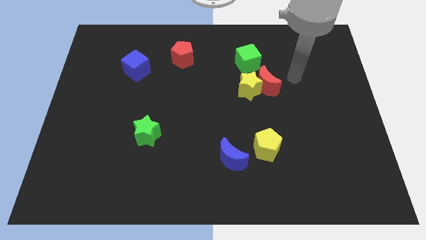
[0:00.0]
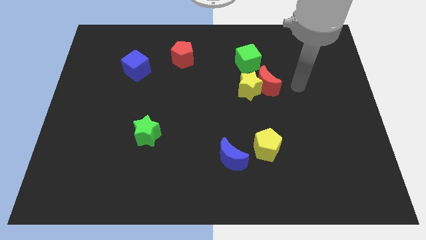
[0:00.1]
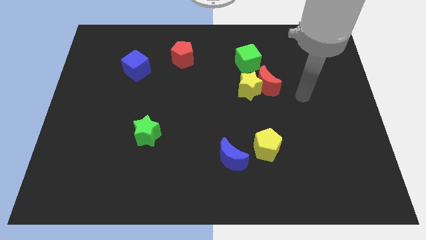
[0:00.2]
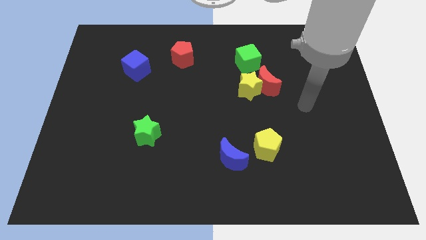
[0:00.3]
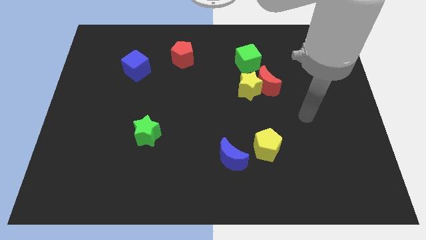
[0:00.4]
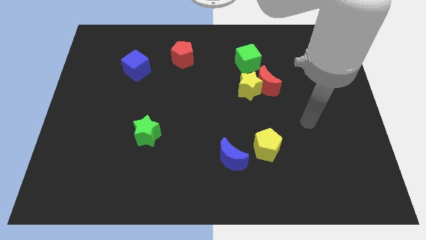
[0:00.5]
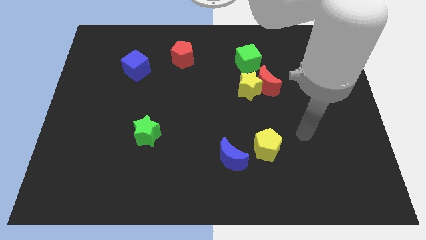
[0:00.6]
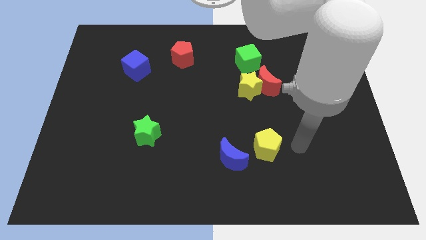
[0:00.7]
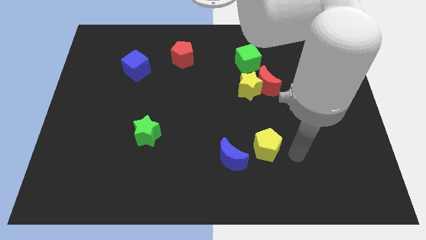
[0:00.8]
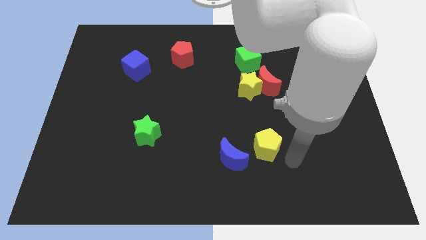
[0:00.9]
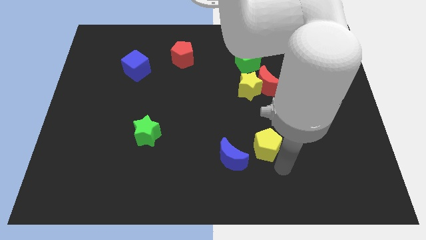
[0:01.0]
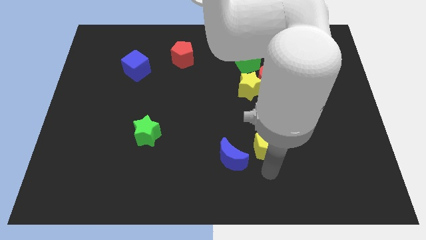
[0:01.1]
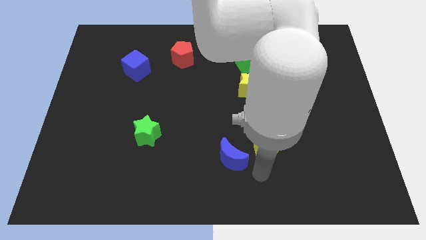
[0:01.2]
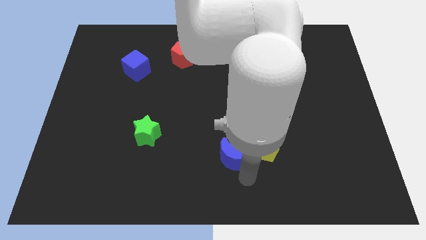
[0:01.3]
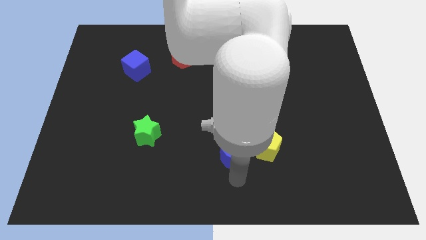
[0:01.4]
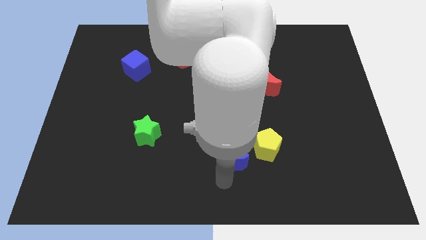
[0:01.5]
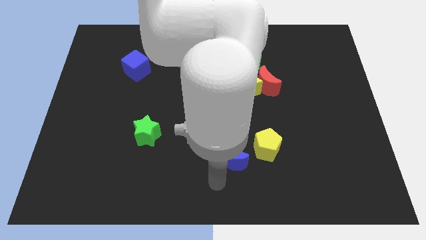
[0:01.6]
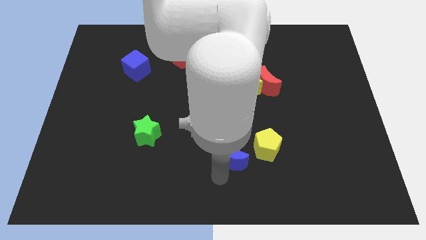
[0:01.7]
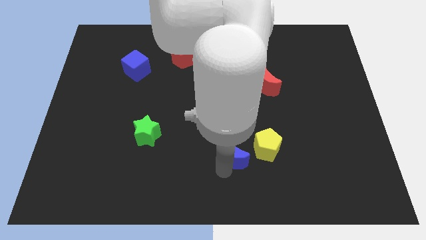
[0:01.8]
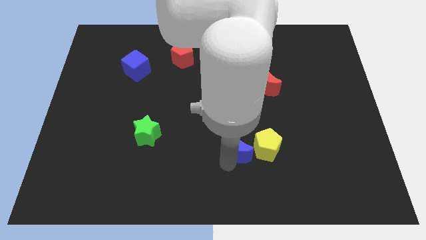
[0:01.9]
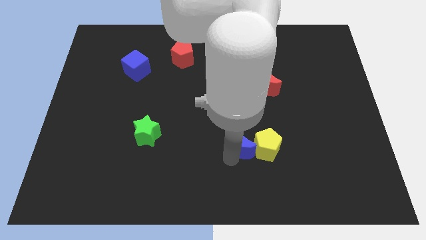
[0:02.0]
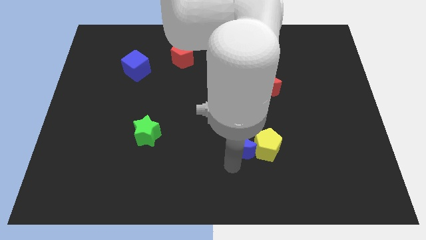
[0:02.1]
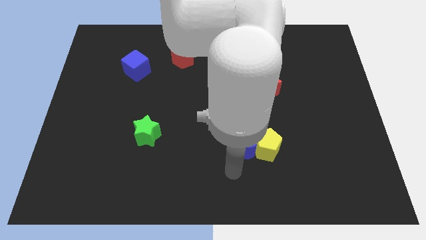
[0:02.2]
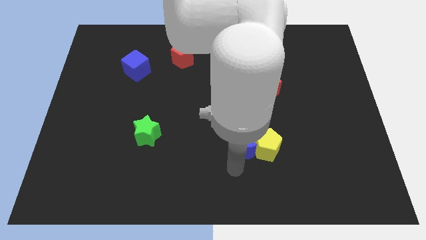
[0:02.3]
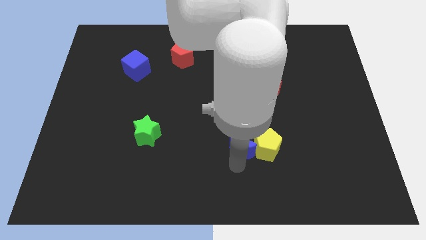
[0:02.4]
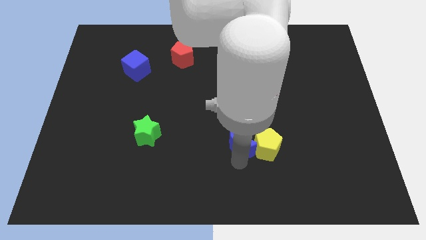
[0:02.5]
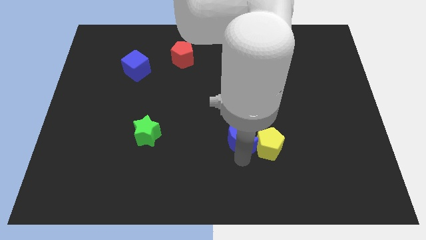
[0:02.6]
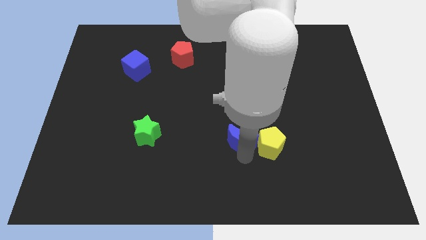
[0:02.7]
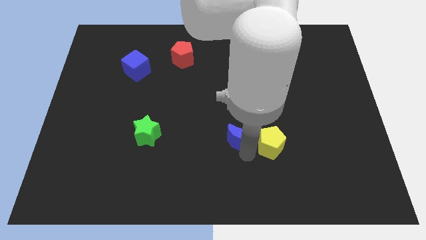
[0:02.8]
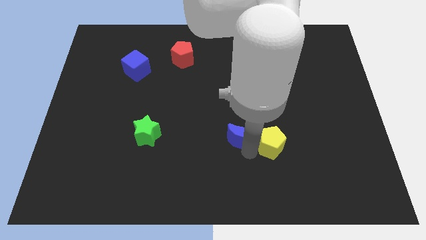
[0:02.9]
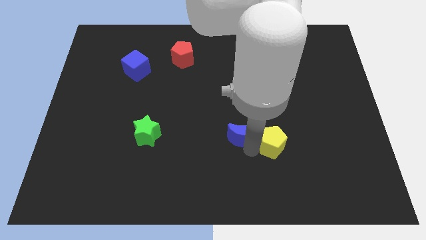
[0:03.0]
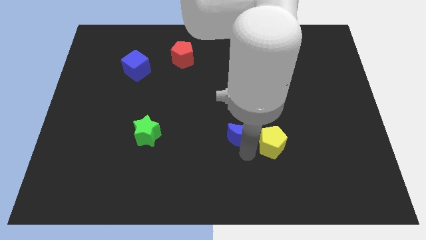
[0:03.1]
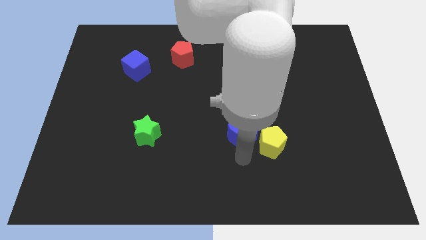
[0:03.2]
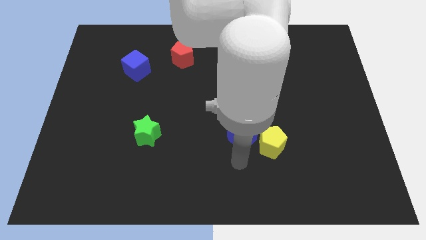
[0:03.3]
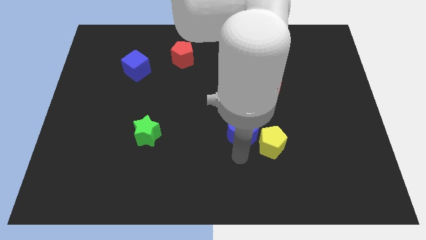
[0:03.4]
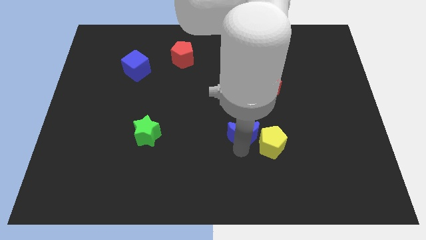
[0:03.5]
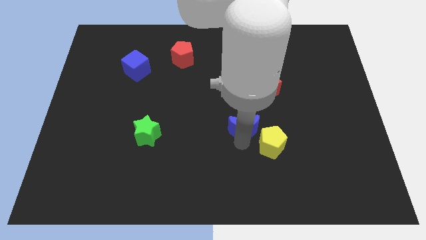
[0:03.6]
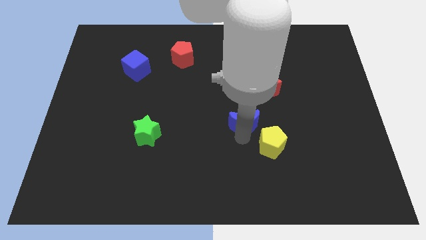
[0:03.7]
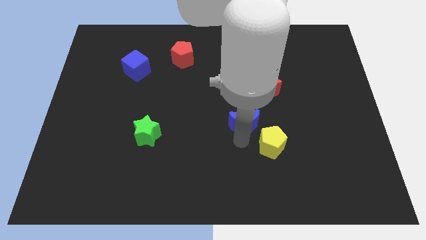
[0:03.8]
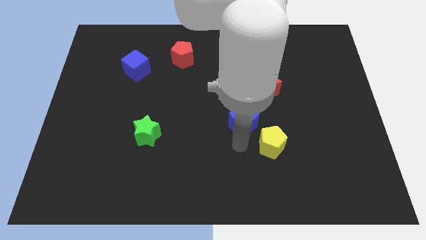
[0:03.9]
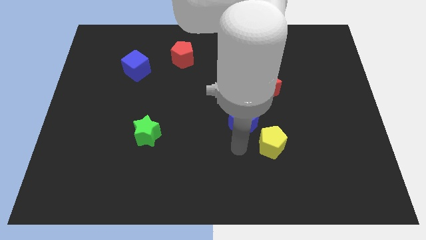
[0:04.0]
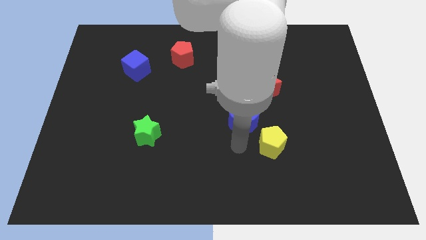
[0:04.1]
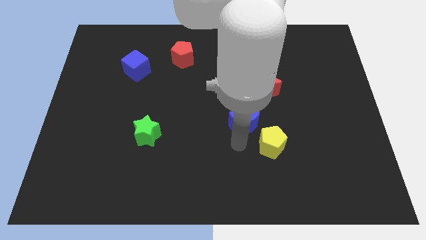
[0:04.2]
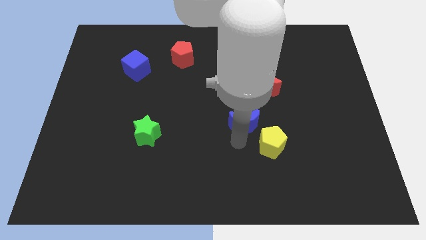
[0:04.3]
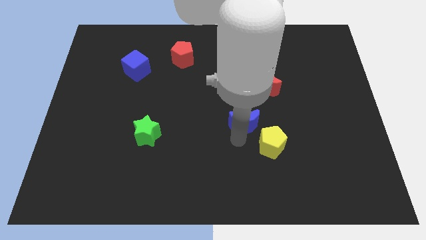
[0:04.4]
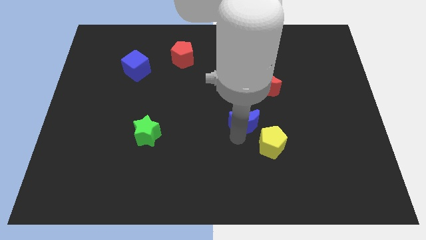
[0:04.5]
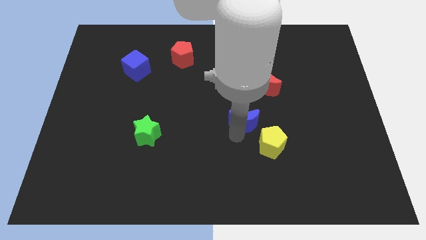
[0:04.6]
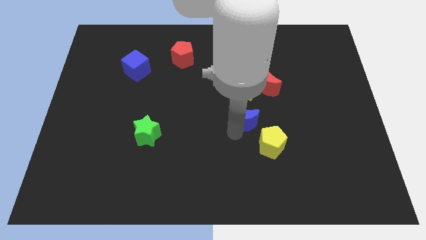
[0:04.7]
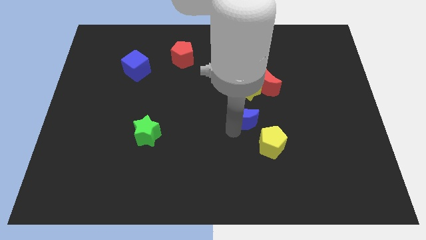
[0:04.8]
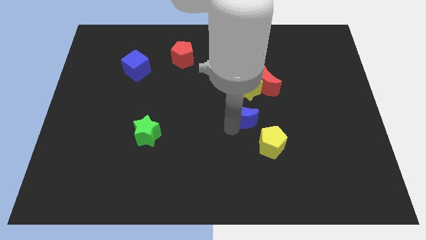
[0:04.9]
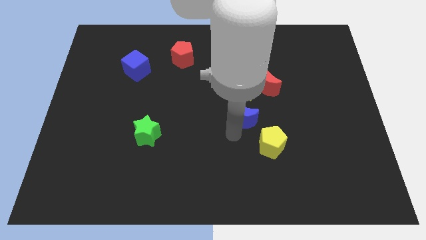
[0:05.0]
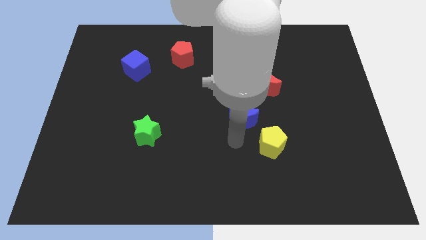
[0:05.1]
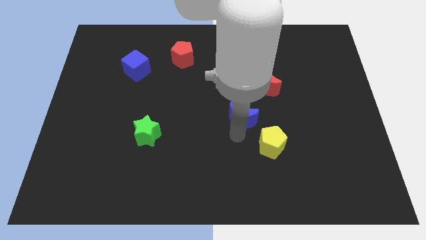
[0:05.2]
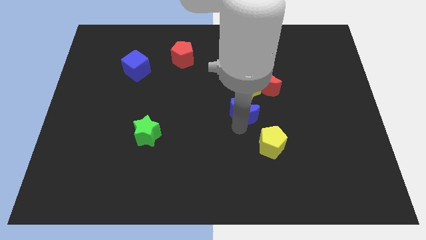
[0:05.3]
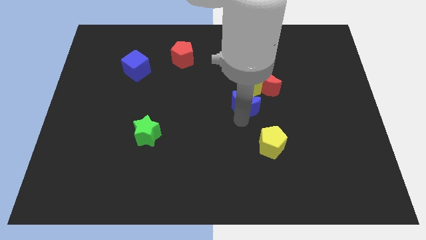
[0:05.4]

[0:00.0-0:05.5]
slide the blue moon to the yellow star

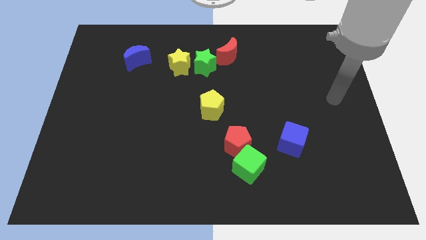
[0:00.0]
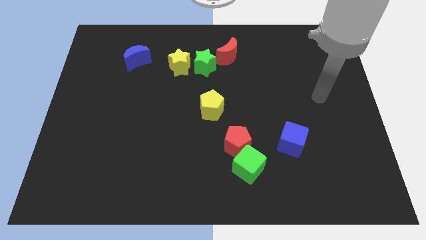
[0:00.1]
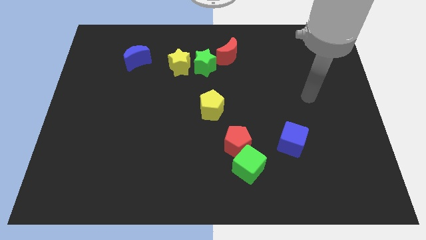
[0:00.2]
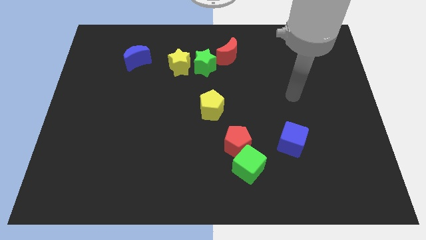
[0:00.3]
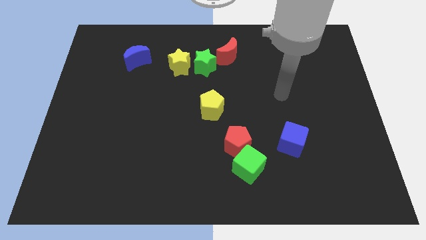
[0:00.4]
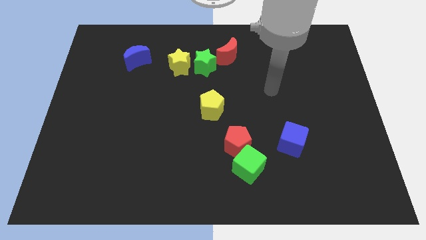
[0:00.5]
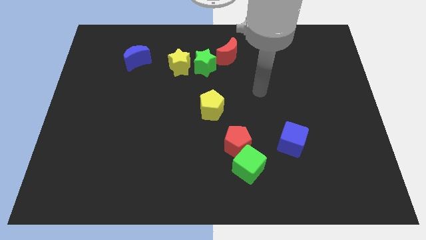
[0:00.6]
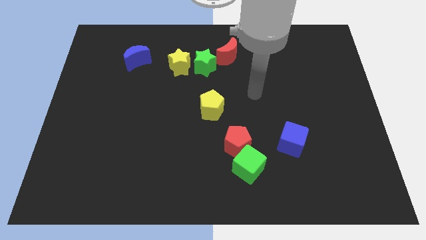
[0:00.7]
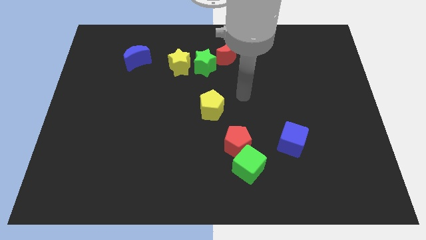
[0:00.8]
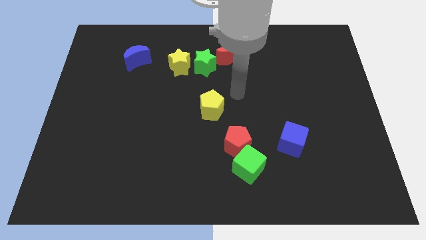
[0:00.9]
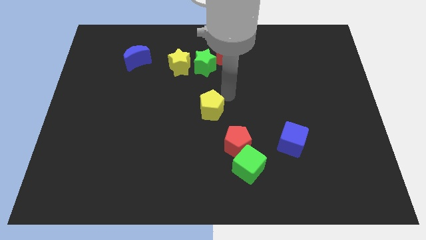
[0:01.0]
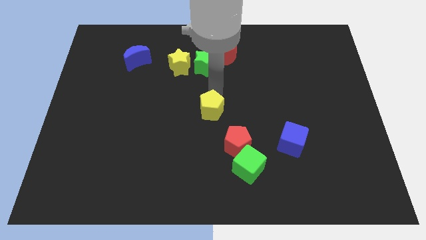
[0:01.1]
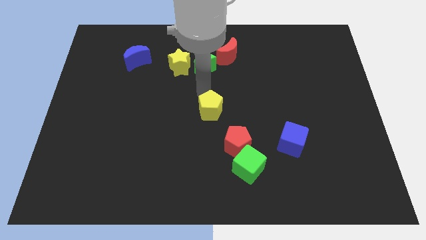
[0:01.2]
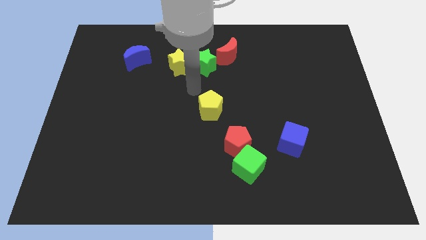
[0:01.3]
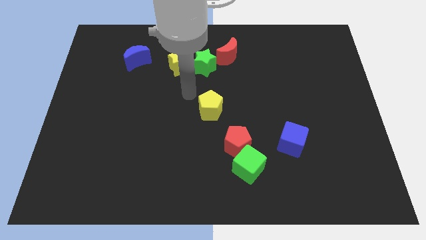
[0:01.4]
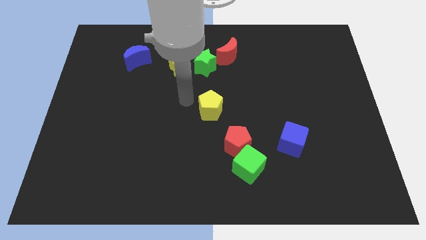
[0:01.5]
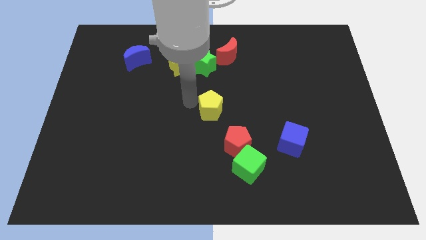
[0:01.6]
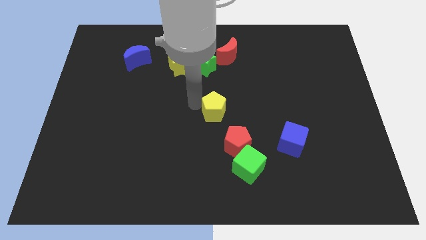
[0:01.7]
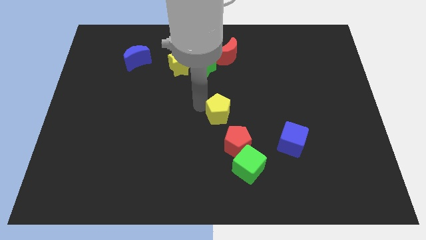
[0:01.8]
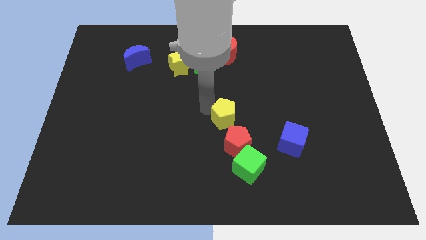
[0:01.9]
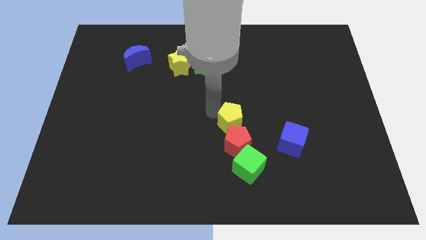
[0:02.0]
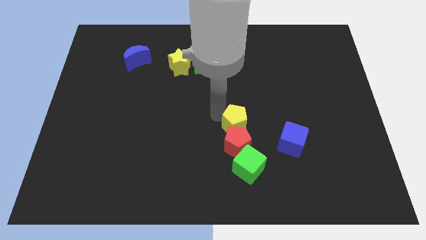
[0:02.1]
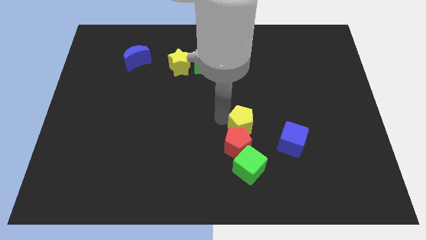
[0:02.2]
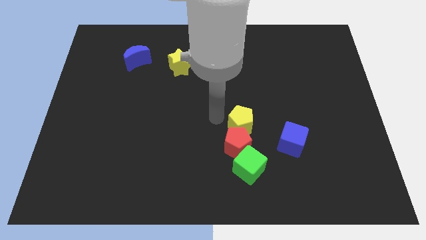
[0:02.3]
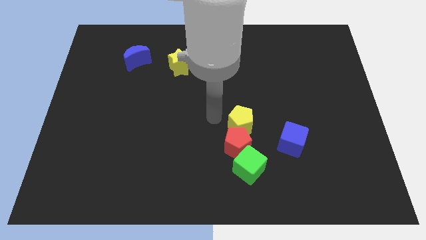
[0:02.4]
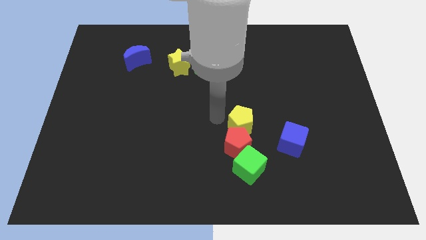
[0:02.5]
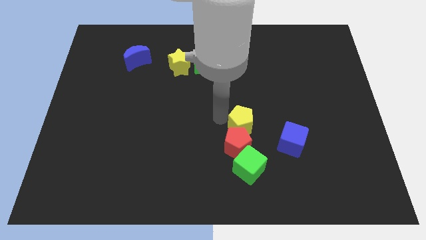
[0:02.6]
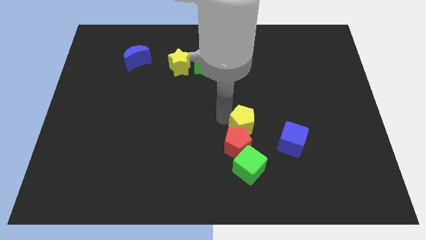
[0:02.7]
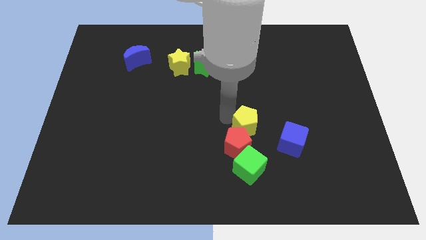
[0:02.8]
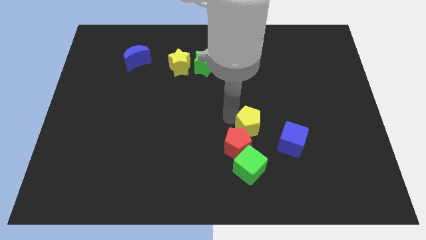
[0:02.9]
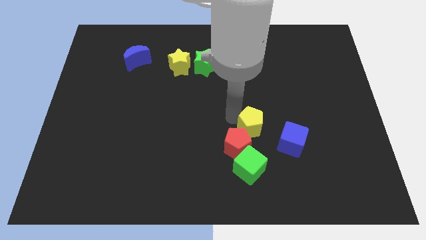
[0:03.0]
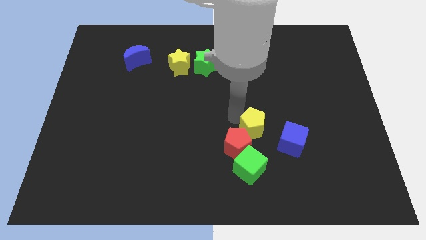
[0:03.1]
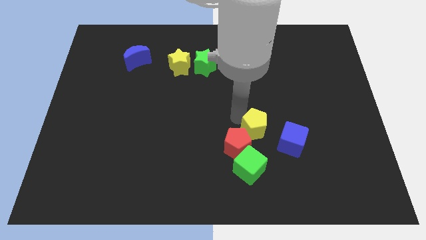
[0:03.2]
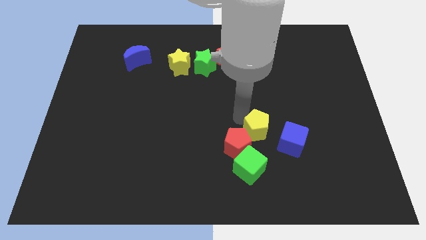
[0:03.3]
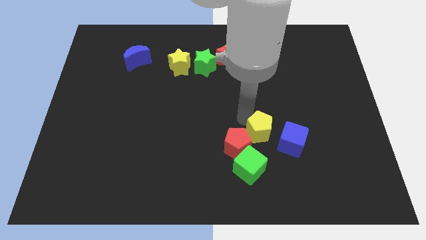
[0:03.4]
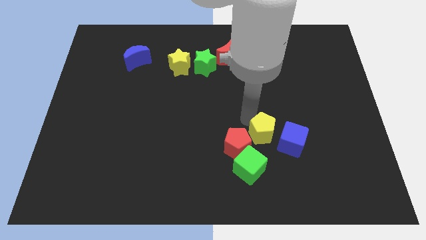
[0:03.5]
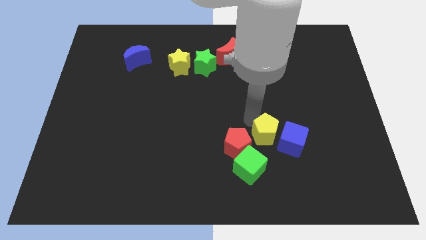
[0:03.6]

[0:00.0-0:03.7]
move the yellow pentagon towards the blue cube
